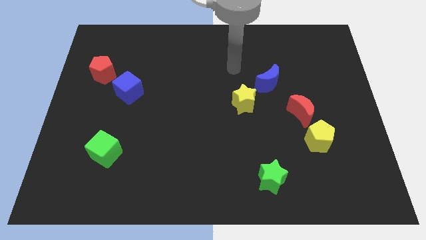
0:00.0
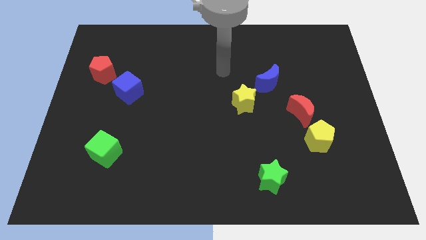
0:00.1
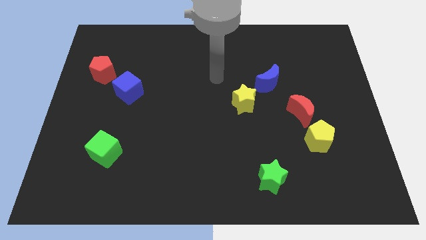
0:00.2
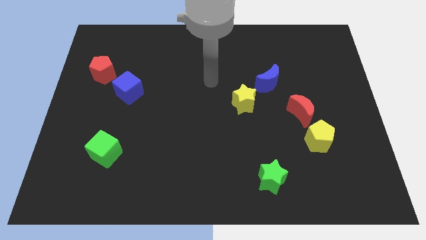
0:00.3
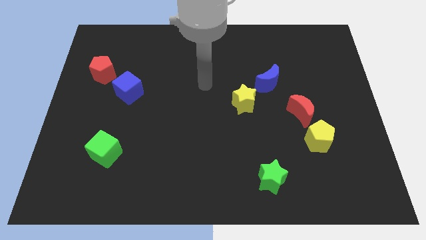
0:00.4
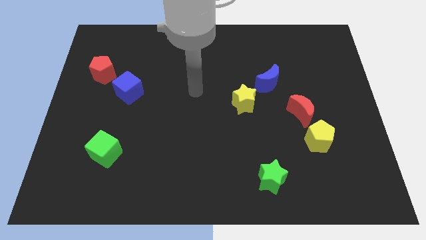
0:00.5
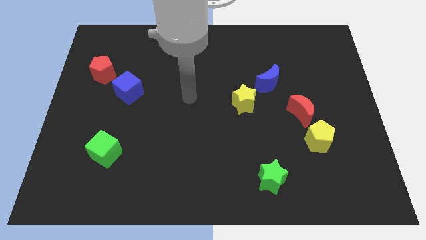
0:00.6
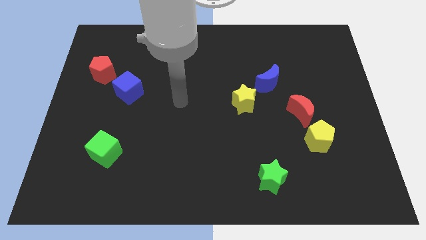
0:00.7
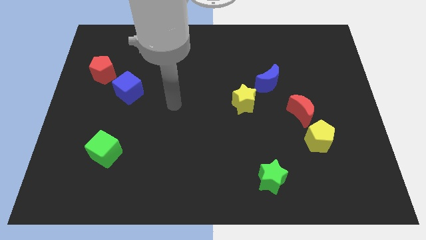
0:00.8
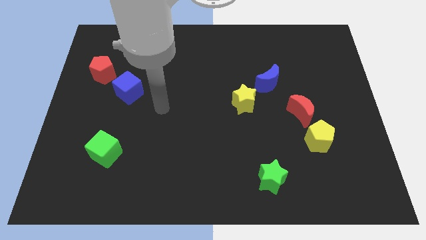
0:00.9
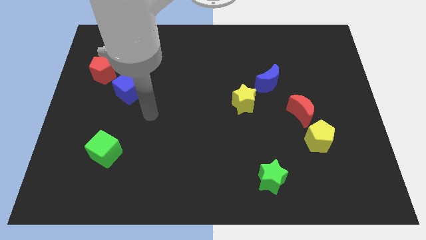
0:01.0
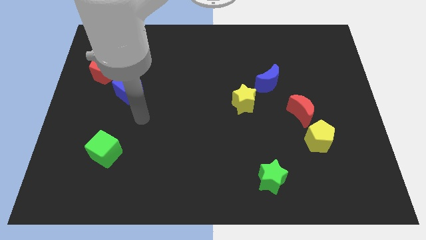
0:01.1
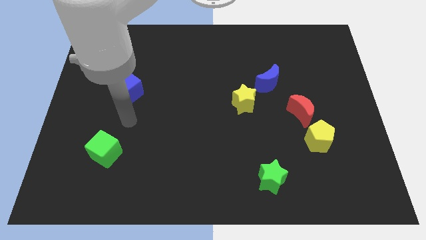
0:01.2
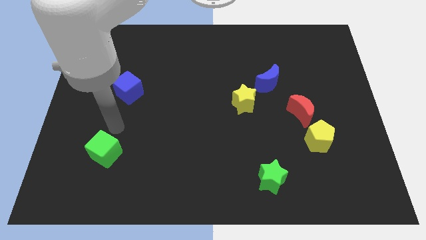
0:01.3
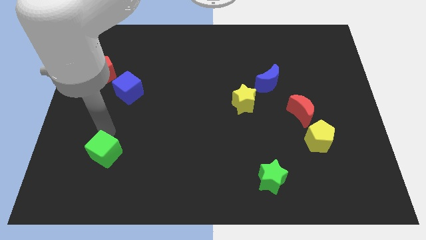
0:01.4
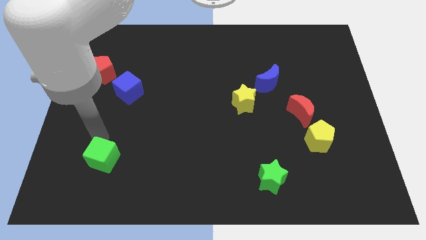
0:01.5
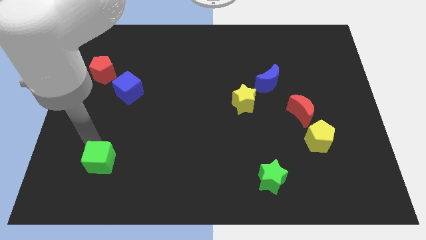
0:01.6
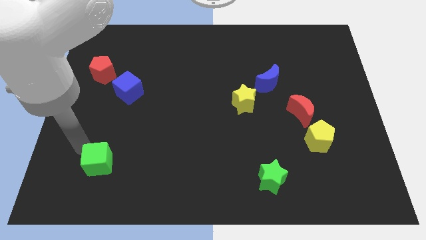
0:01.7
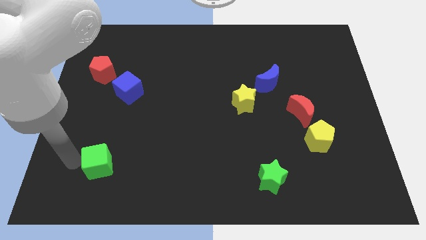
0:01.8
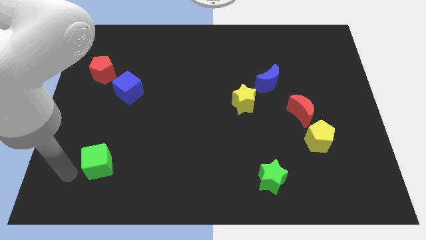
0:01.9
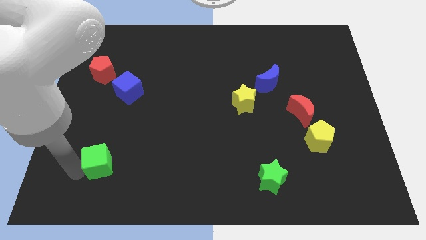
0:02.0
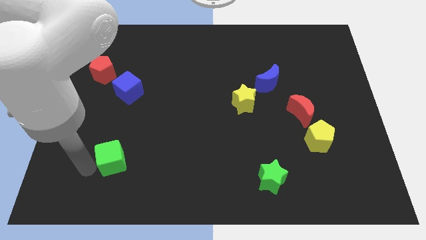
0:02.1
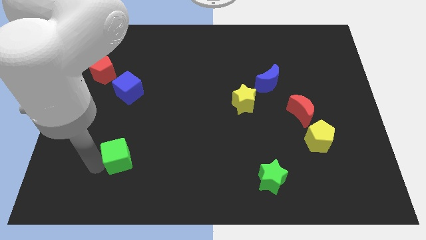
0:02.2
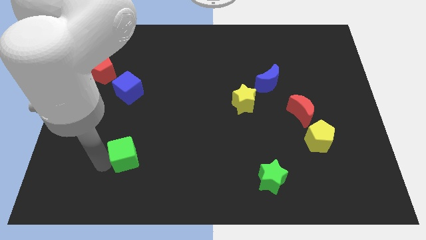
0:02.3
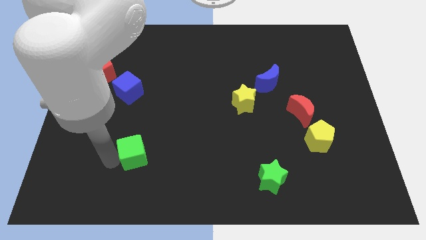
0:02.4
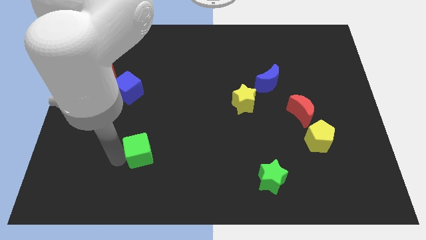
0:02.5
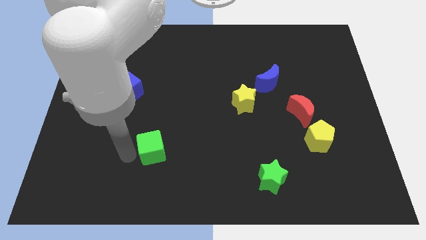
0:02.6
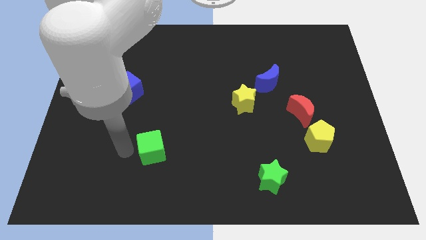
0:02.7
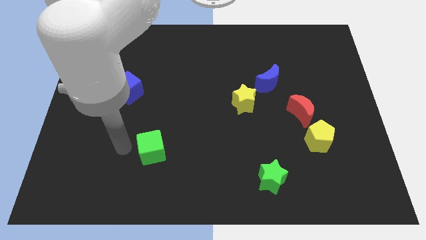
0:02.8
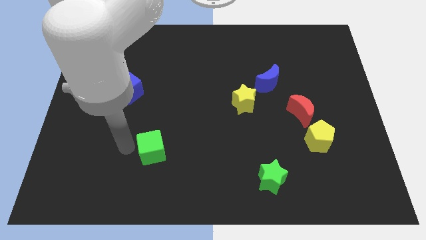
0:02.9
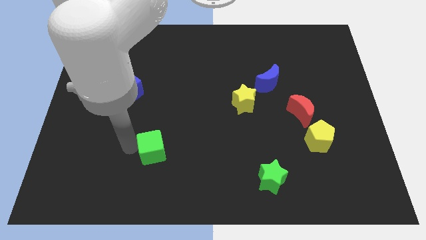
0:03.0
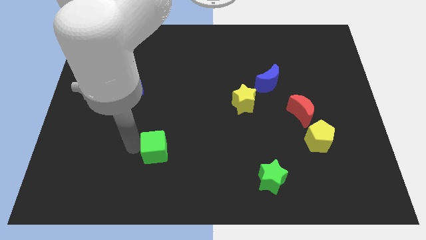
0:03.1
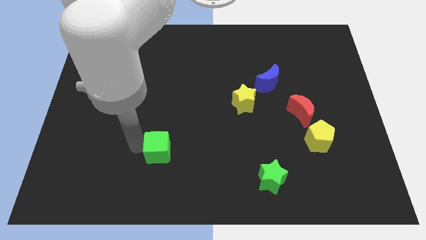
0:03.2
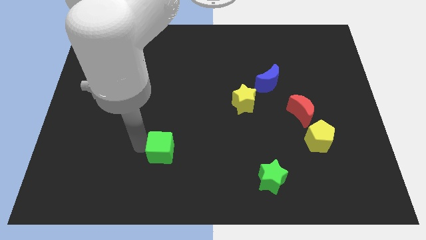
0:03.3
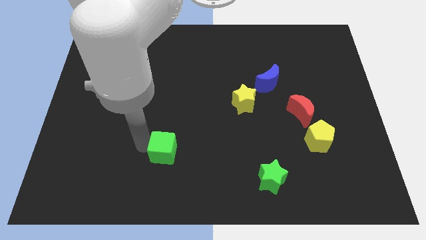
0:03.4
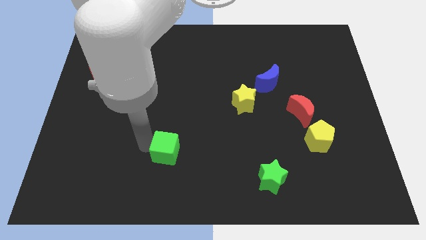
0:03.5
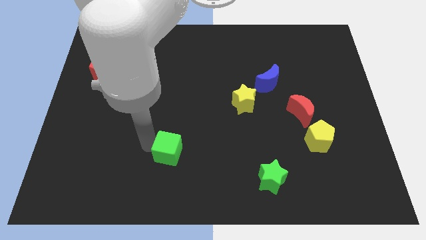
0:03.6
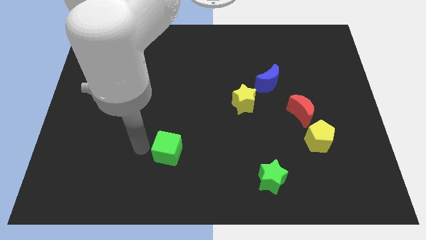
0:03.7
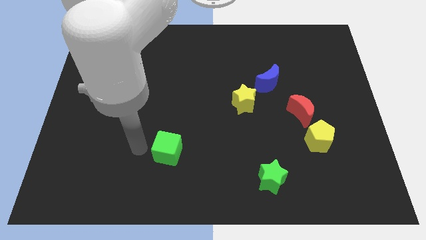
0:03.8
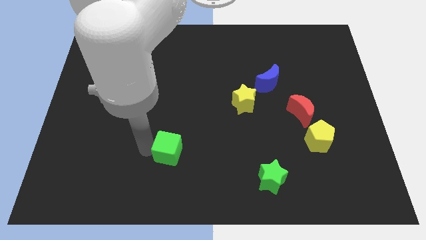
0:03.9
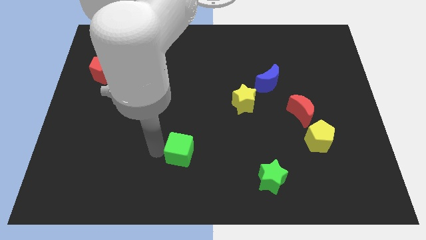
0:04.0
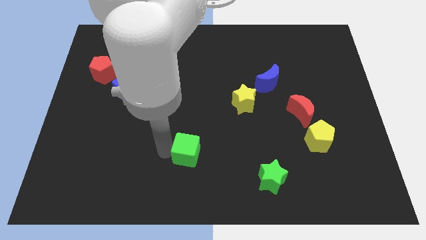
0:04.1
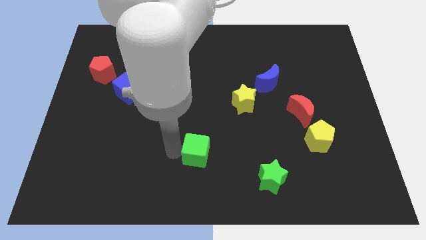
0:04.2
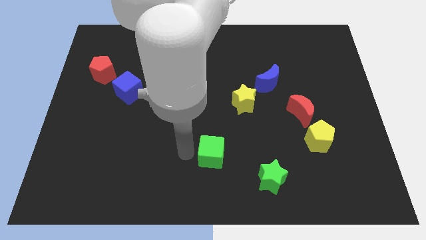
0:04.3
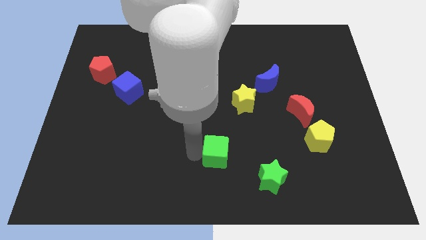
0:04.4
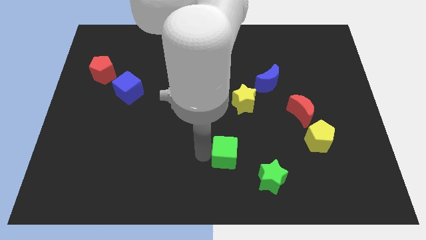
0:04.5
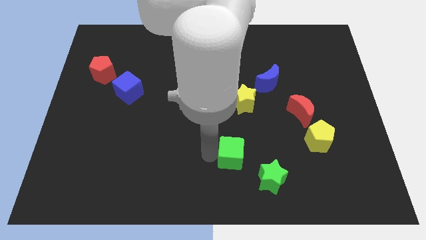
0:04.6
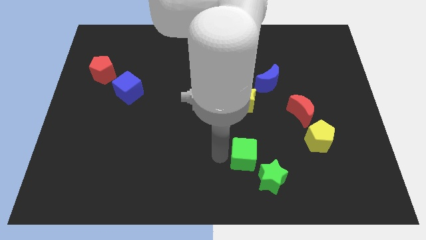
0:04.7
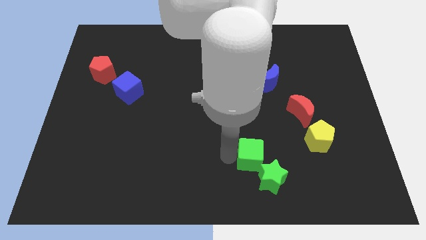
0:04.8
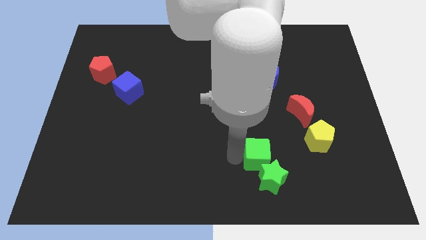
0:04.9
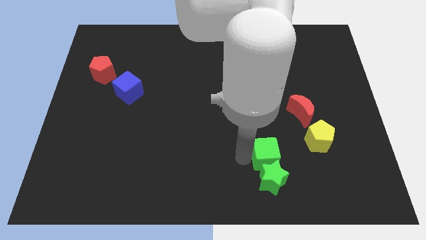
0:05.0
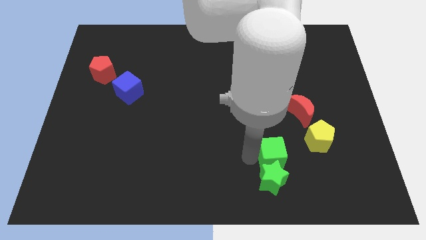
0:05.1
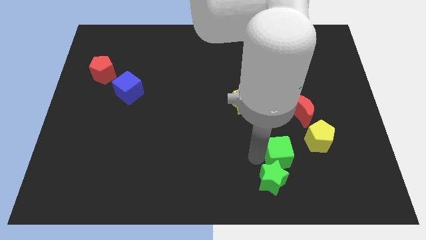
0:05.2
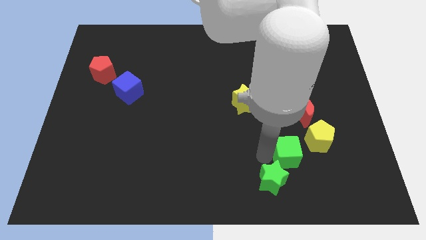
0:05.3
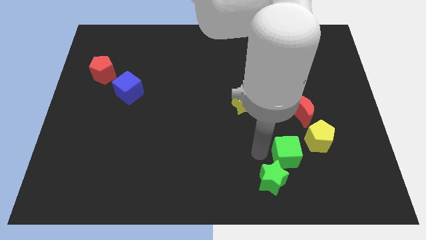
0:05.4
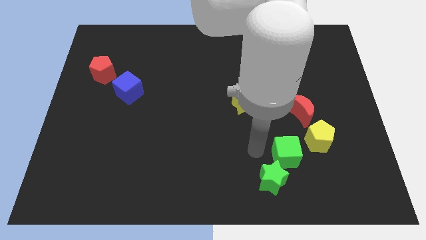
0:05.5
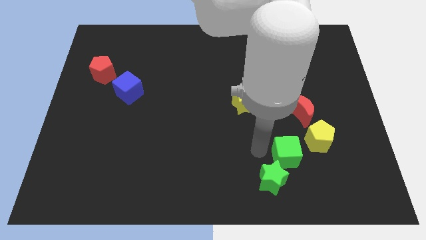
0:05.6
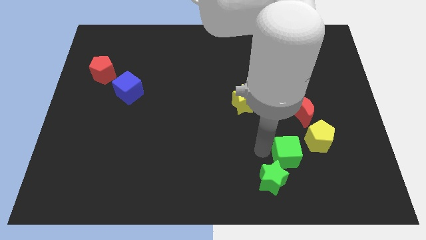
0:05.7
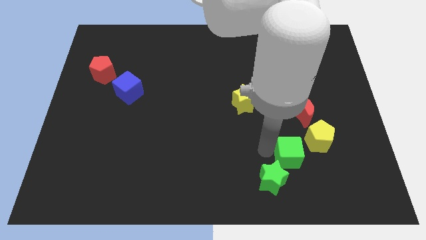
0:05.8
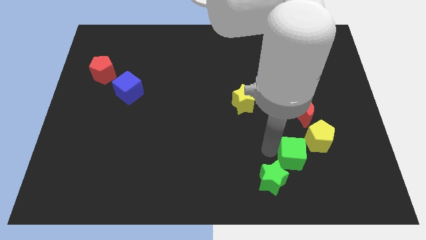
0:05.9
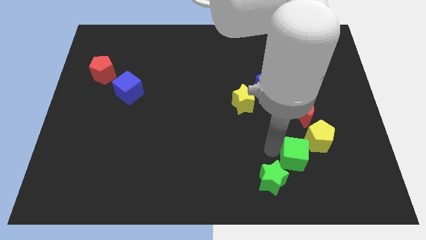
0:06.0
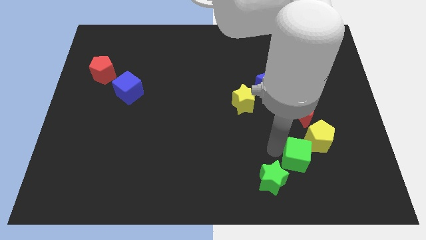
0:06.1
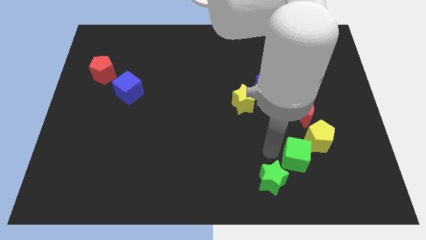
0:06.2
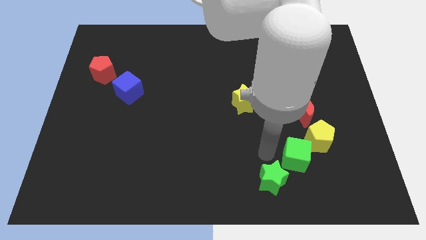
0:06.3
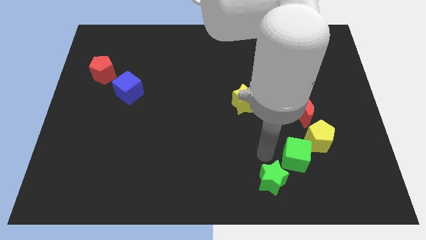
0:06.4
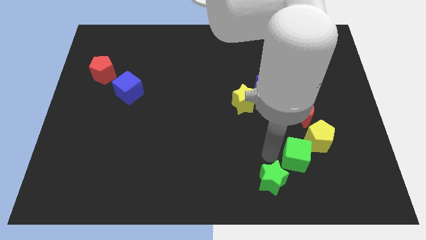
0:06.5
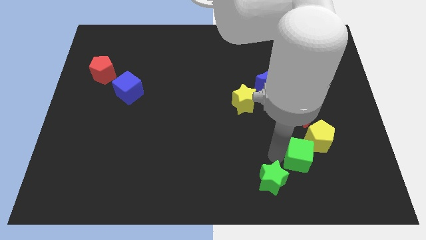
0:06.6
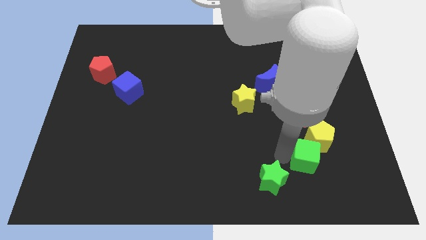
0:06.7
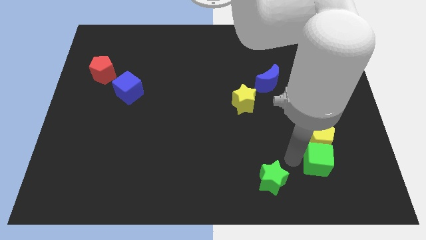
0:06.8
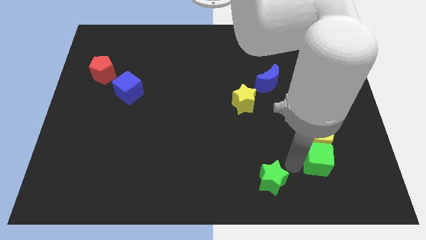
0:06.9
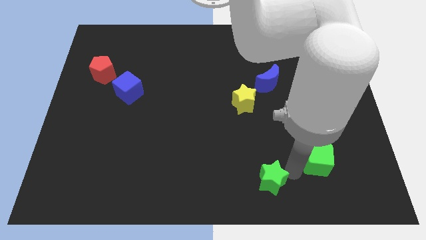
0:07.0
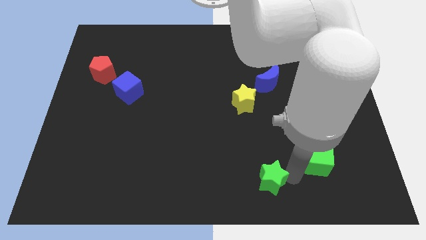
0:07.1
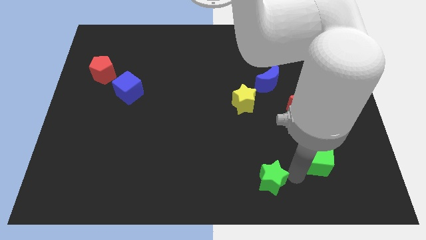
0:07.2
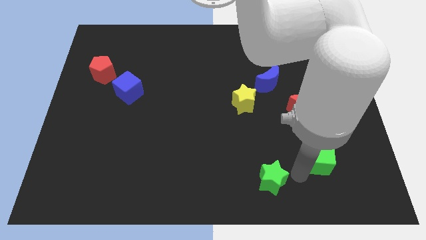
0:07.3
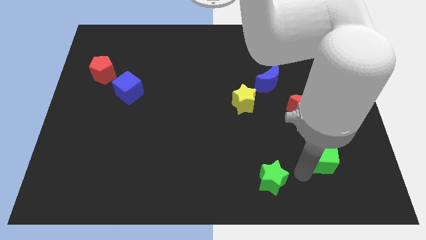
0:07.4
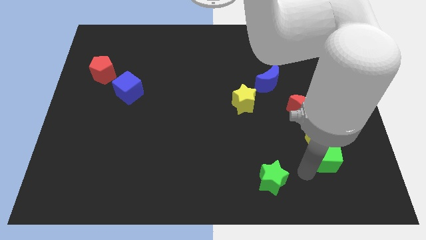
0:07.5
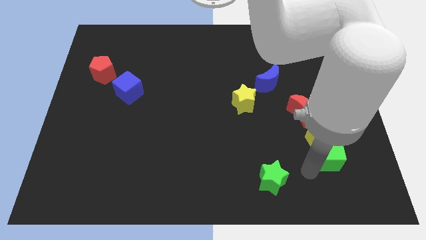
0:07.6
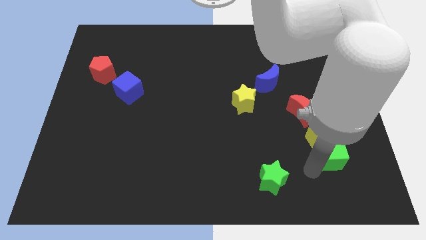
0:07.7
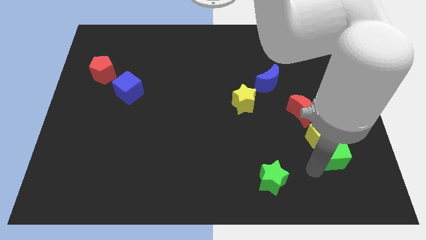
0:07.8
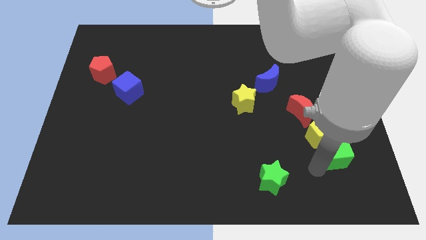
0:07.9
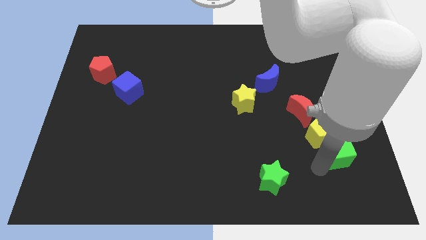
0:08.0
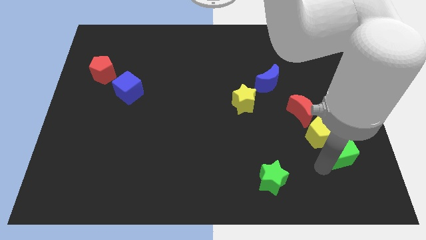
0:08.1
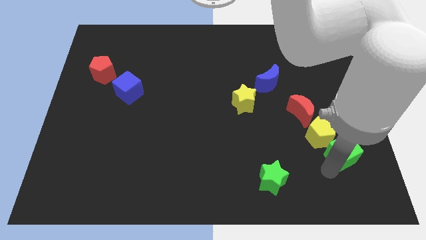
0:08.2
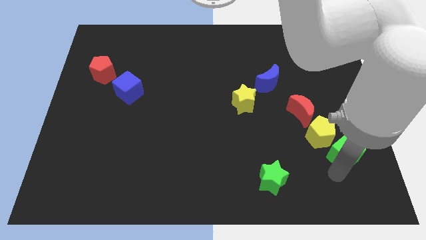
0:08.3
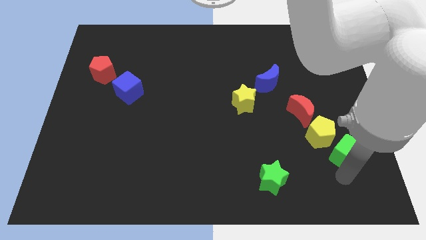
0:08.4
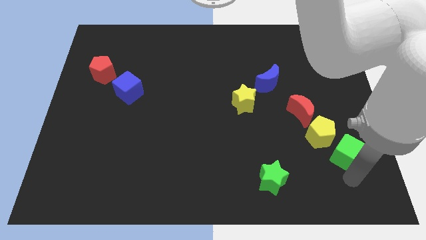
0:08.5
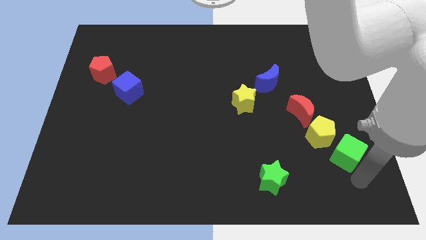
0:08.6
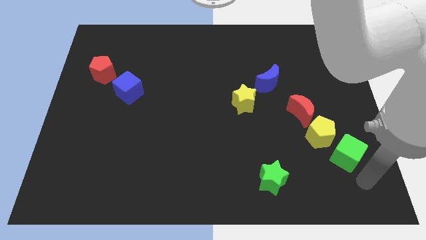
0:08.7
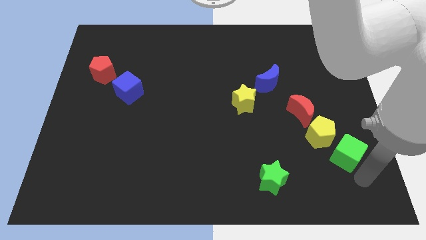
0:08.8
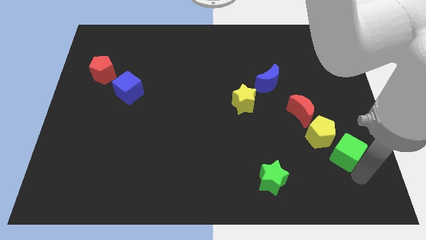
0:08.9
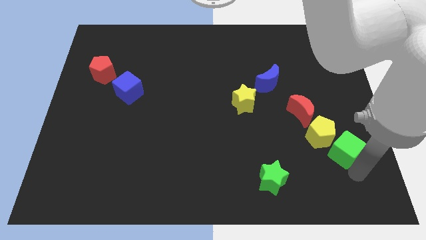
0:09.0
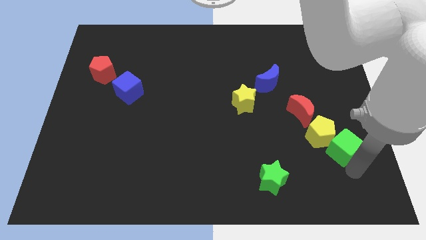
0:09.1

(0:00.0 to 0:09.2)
move the green cube to the bottom right of the red moon
